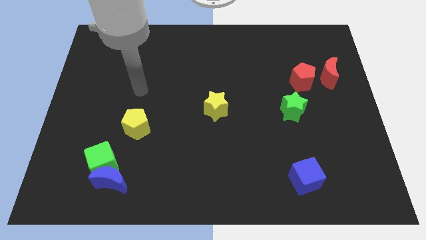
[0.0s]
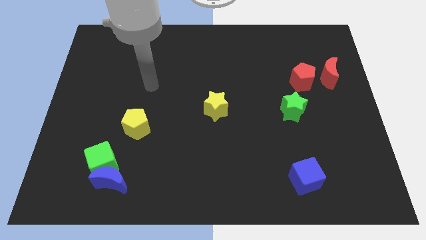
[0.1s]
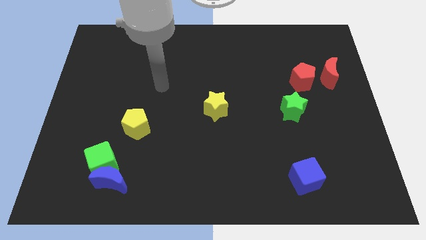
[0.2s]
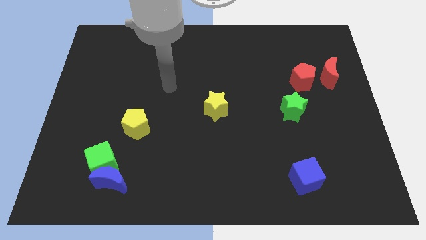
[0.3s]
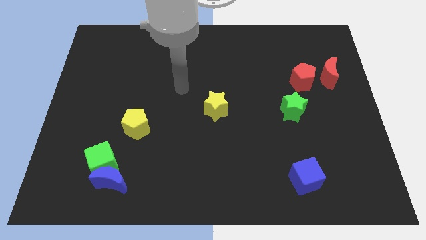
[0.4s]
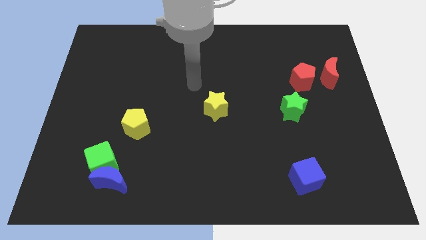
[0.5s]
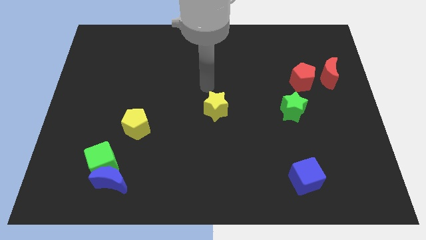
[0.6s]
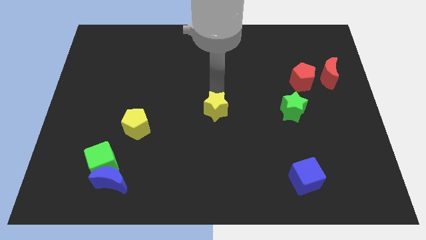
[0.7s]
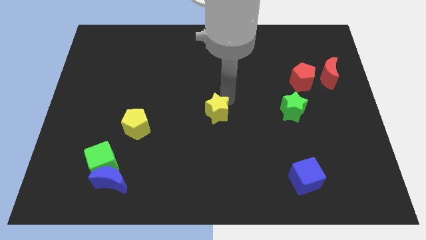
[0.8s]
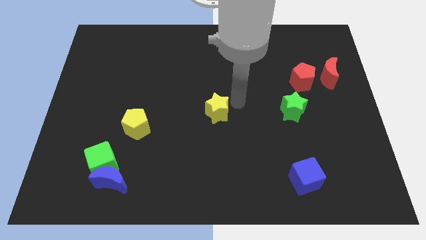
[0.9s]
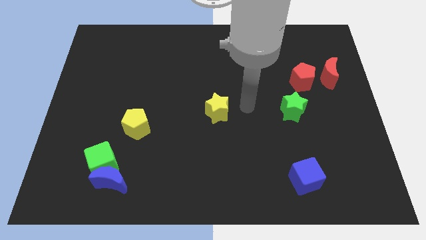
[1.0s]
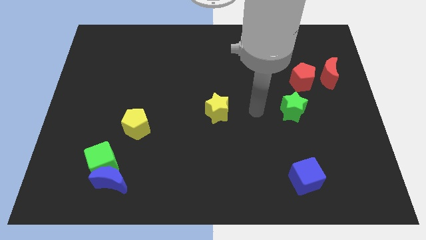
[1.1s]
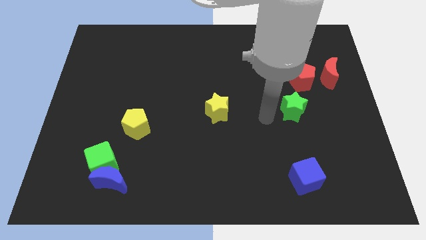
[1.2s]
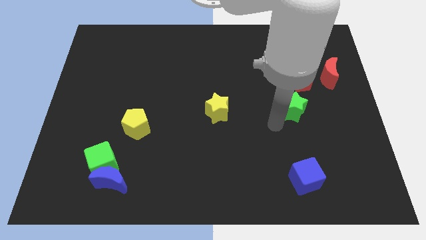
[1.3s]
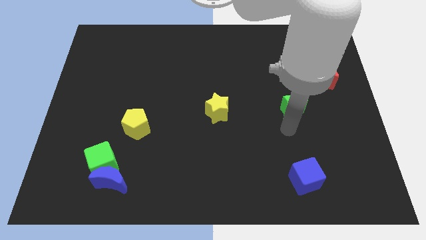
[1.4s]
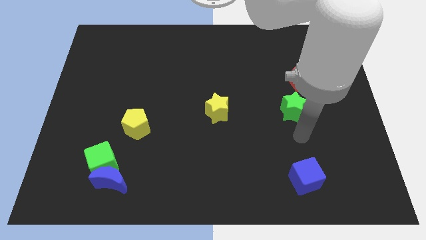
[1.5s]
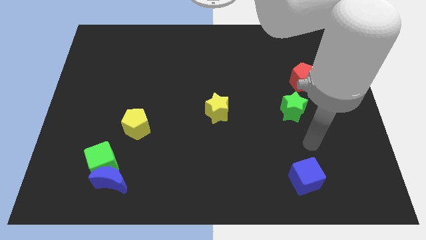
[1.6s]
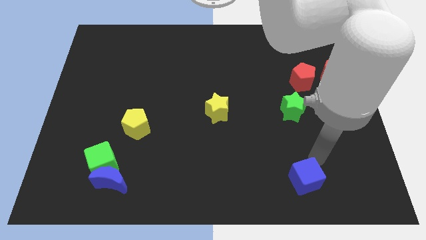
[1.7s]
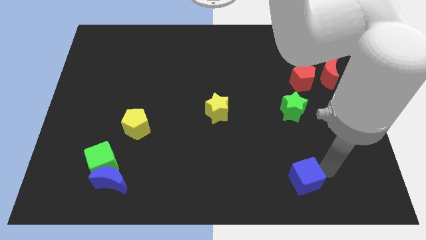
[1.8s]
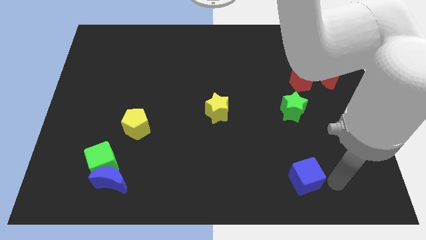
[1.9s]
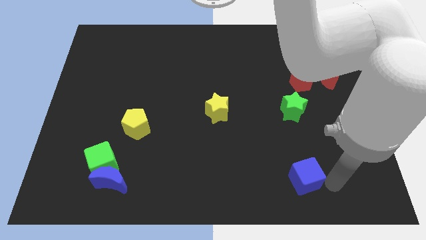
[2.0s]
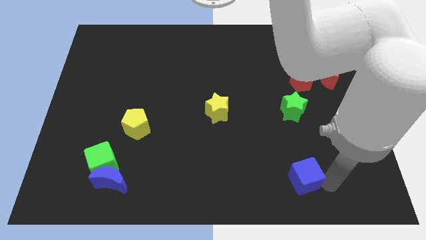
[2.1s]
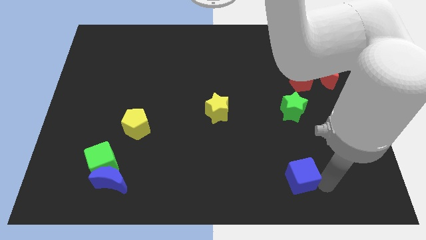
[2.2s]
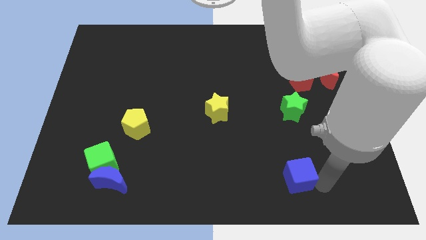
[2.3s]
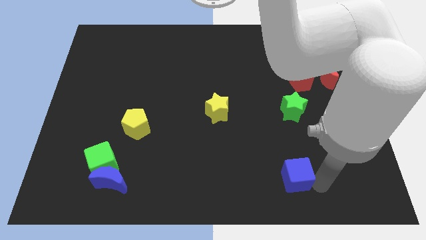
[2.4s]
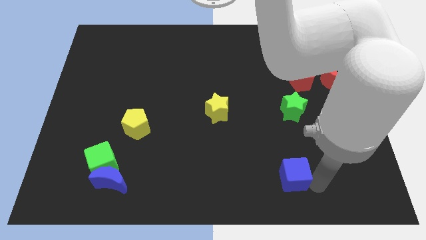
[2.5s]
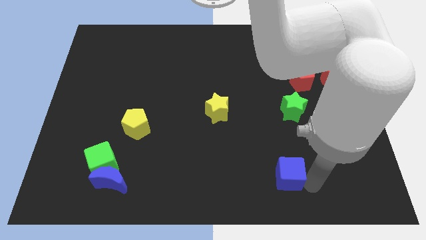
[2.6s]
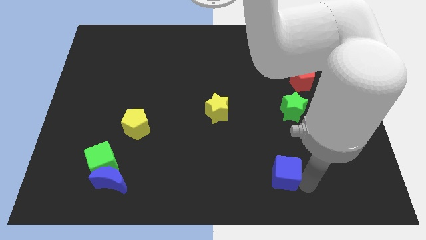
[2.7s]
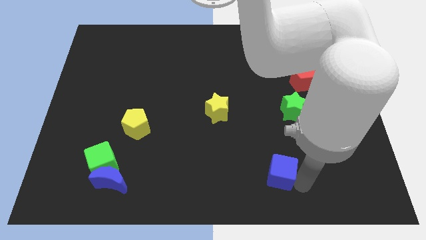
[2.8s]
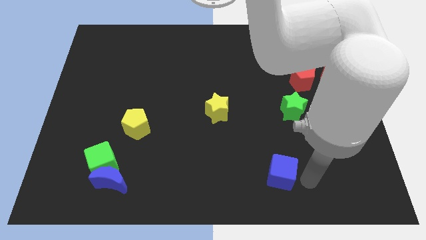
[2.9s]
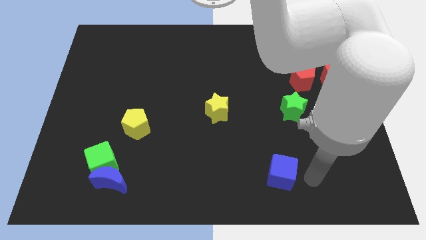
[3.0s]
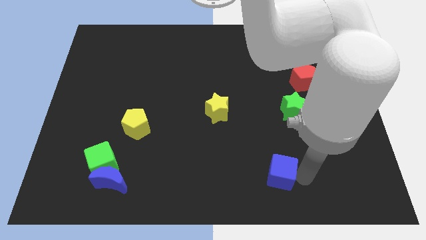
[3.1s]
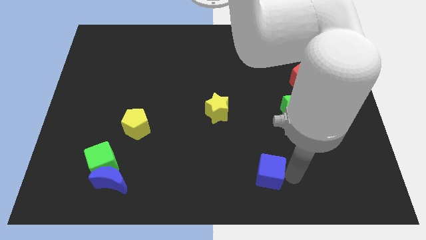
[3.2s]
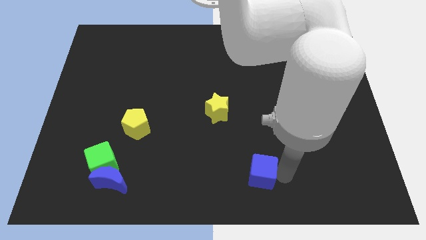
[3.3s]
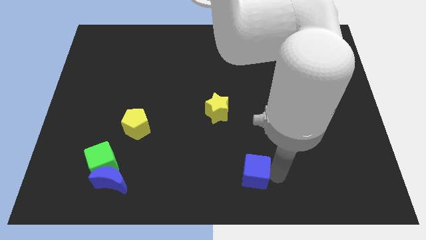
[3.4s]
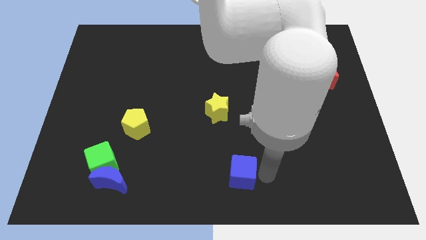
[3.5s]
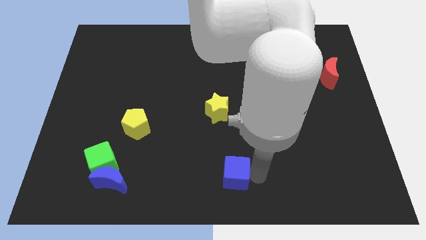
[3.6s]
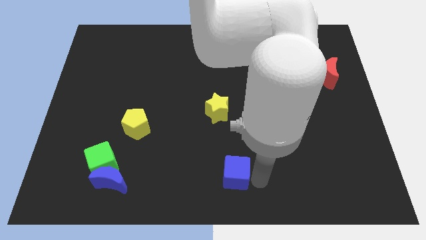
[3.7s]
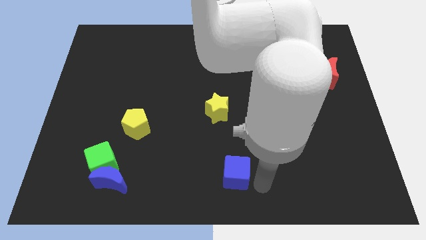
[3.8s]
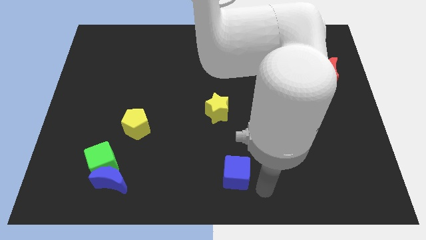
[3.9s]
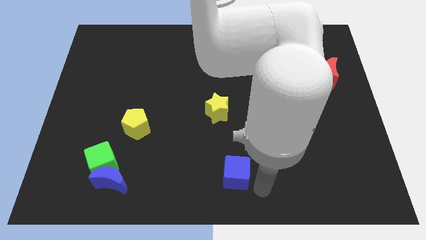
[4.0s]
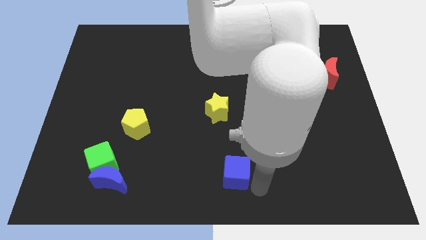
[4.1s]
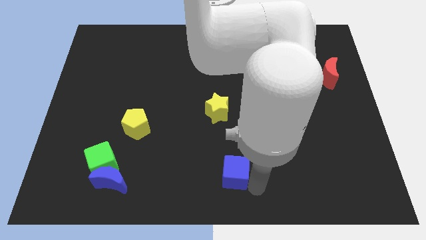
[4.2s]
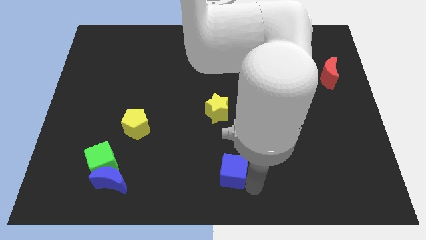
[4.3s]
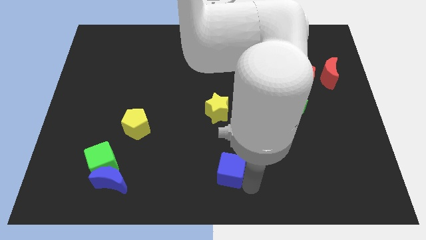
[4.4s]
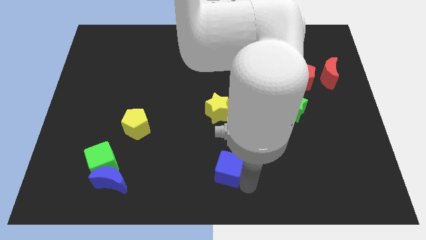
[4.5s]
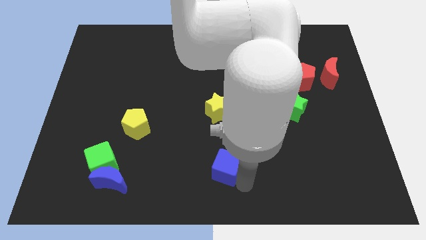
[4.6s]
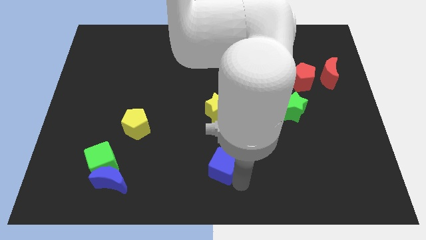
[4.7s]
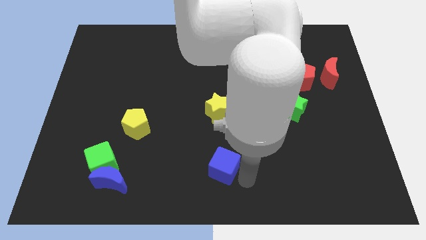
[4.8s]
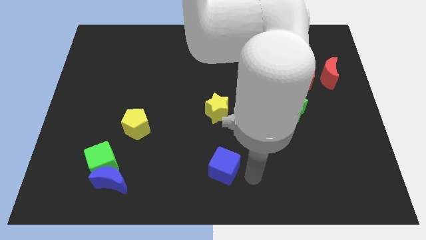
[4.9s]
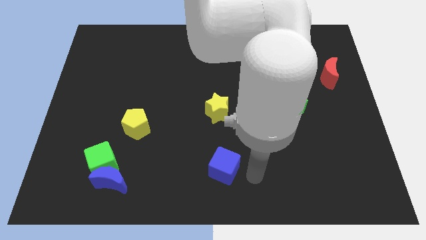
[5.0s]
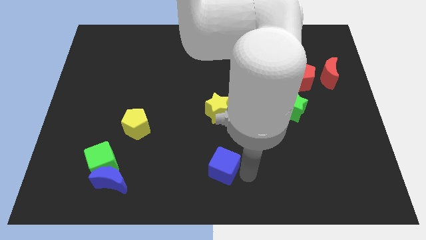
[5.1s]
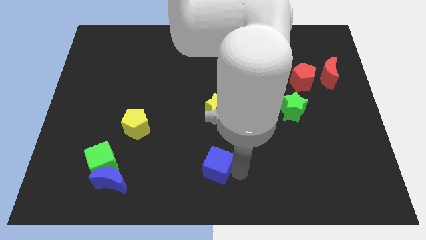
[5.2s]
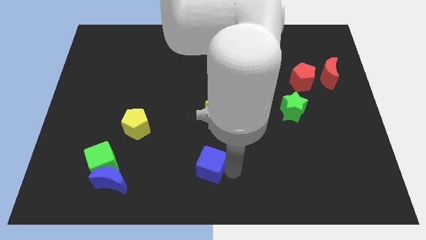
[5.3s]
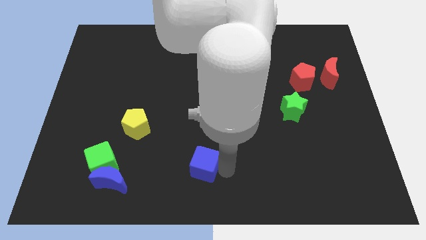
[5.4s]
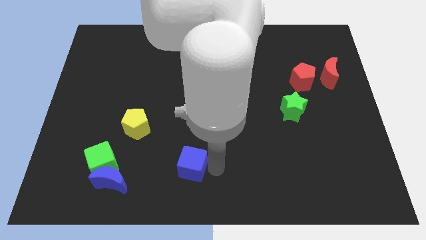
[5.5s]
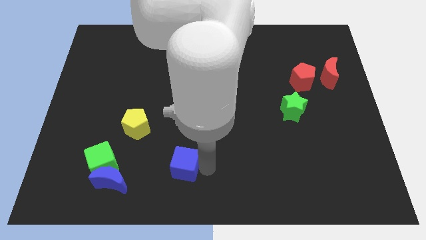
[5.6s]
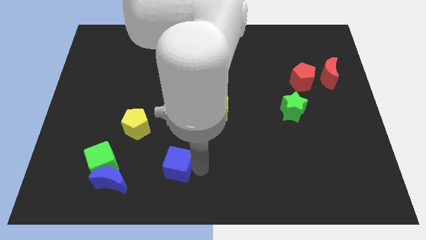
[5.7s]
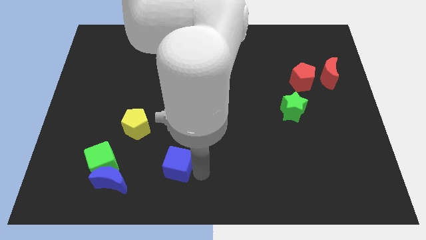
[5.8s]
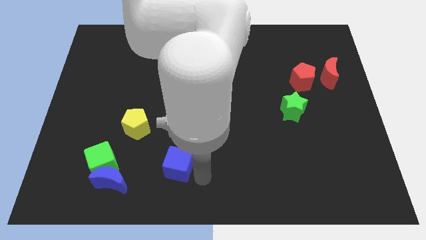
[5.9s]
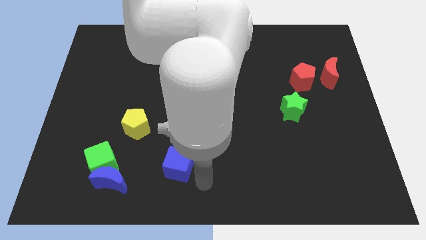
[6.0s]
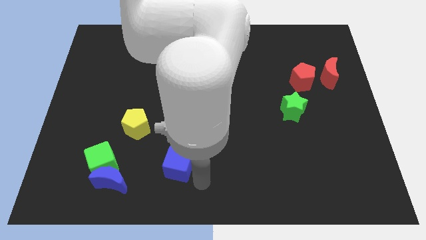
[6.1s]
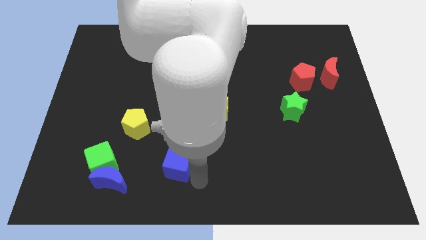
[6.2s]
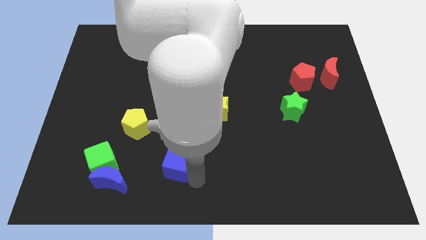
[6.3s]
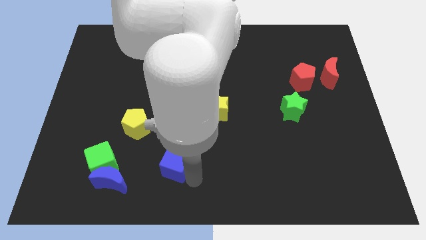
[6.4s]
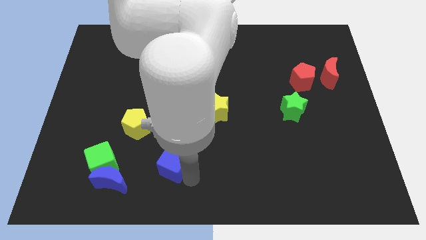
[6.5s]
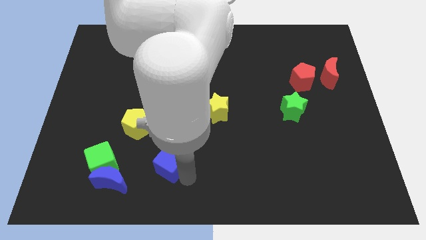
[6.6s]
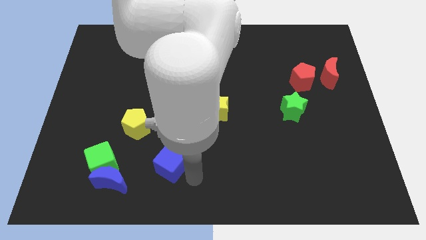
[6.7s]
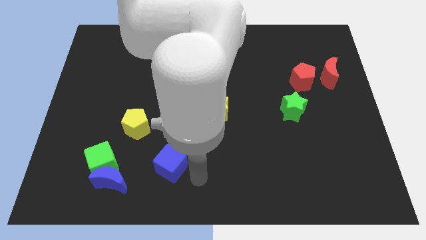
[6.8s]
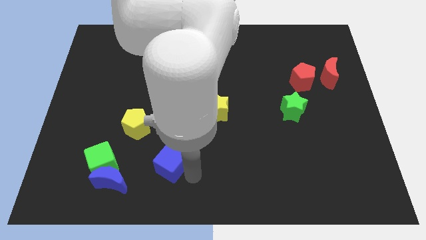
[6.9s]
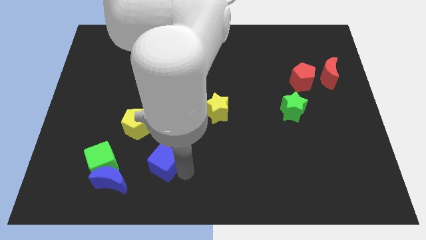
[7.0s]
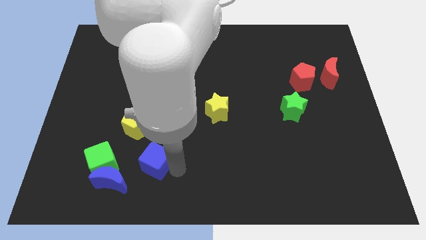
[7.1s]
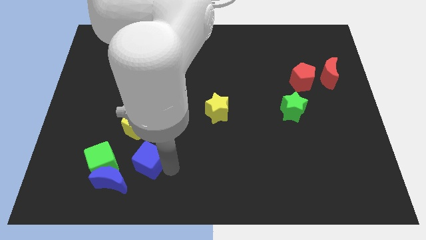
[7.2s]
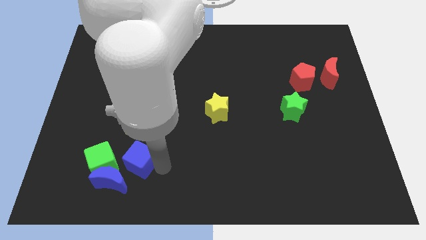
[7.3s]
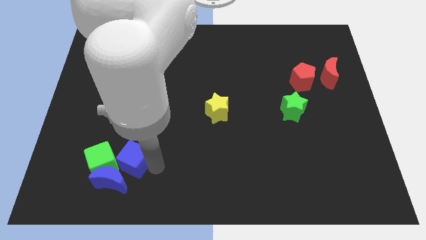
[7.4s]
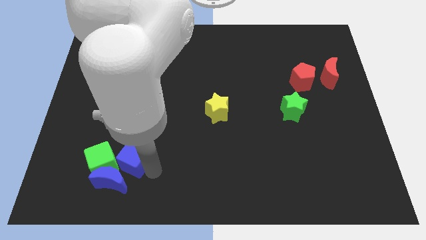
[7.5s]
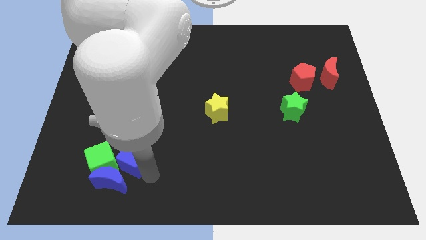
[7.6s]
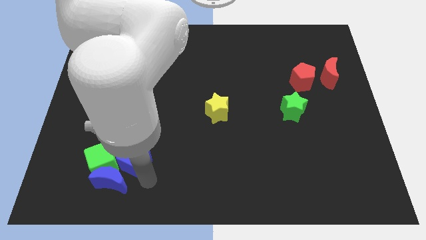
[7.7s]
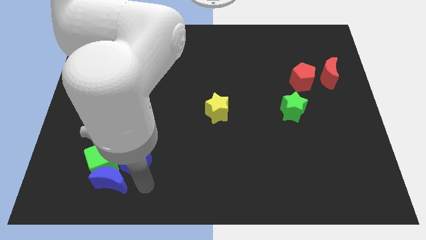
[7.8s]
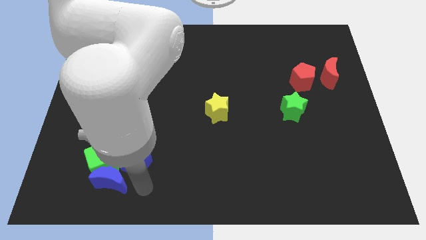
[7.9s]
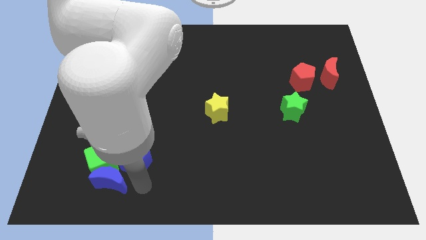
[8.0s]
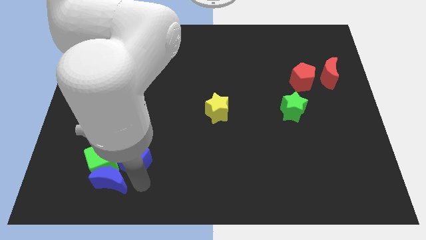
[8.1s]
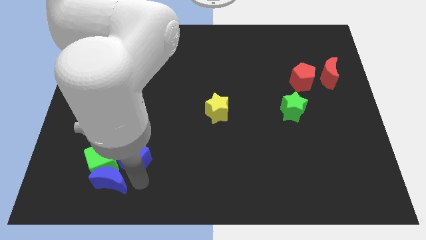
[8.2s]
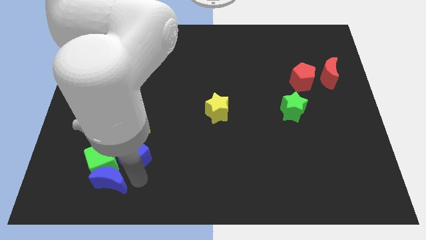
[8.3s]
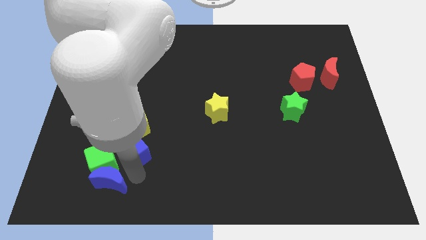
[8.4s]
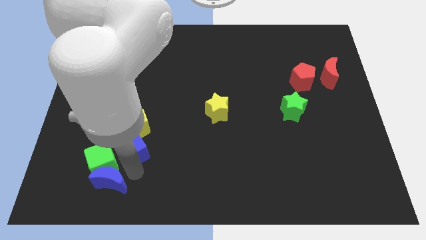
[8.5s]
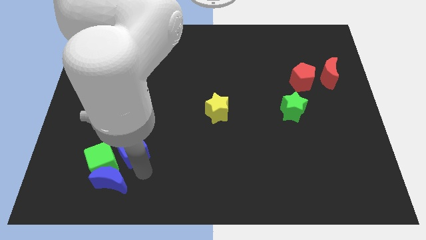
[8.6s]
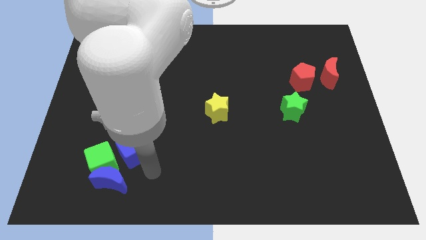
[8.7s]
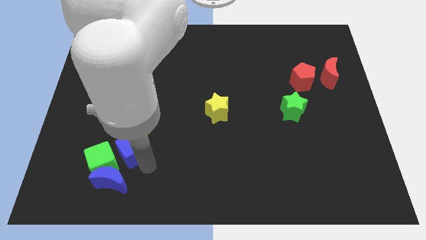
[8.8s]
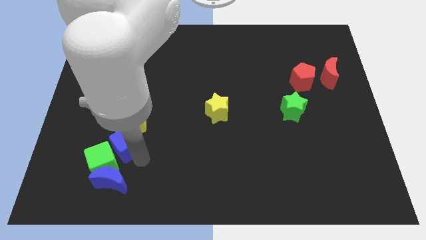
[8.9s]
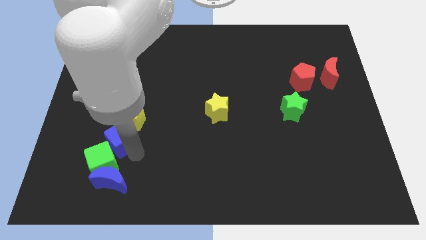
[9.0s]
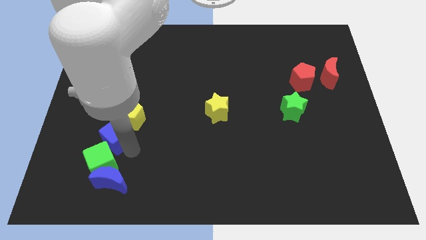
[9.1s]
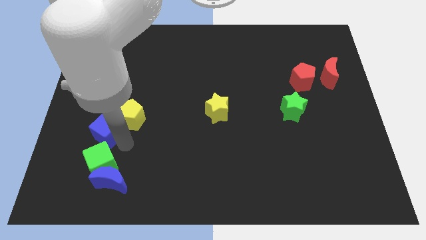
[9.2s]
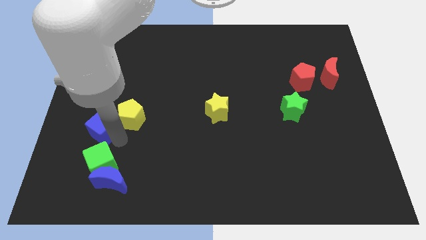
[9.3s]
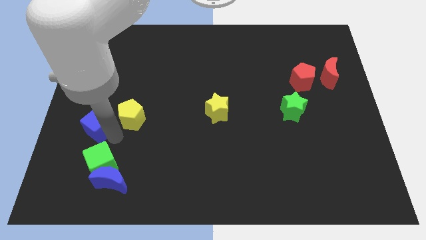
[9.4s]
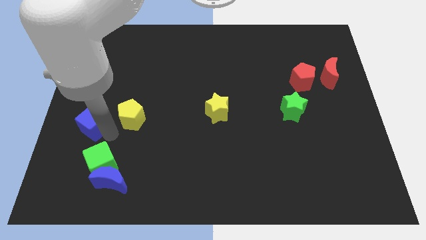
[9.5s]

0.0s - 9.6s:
move the blue cube to the left side
